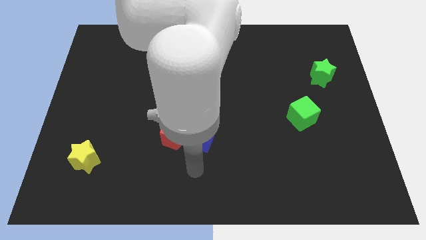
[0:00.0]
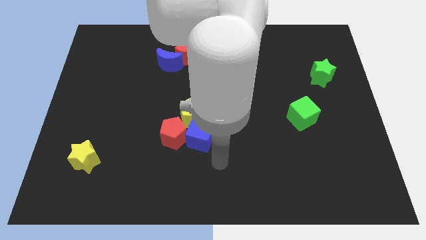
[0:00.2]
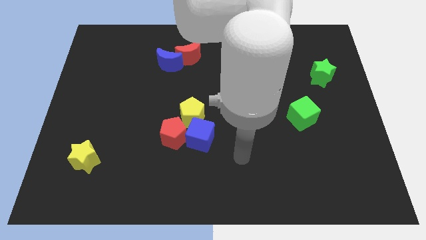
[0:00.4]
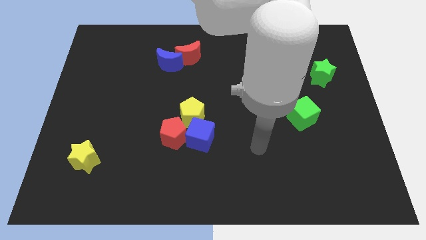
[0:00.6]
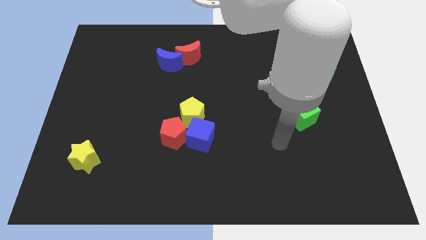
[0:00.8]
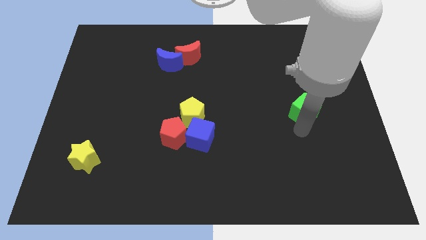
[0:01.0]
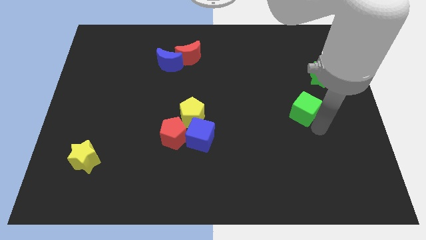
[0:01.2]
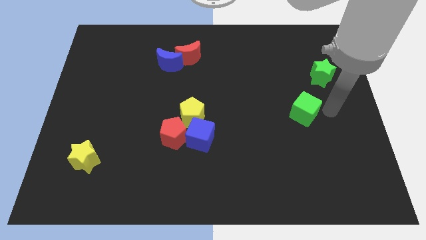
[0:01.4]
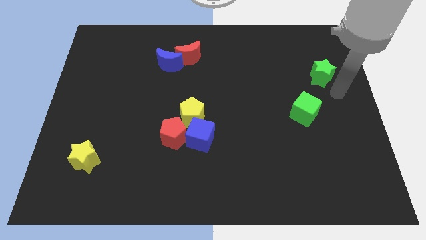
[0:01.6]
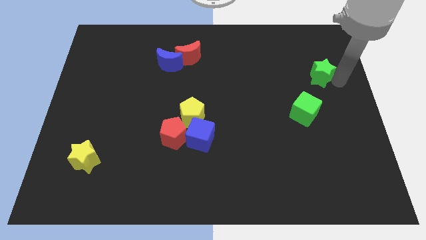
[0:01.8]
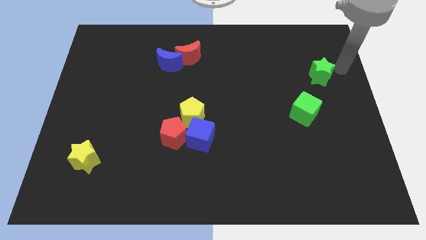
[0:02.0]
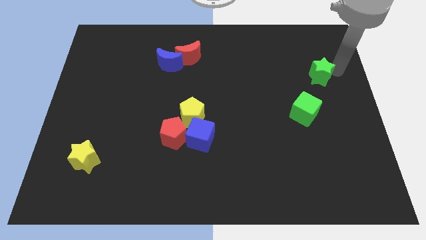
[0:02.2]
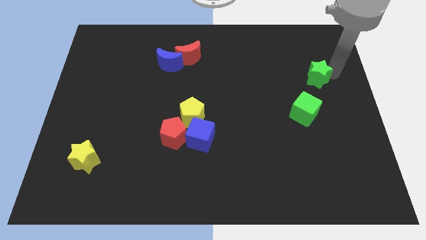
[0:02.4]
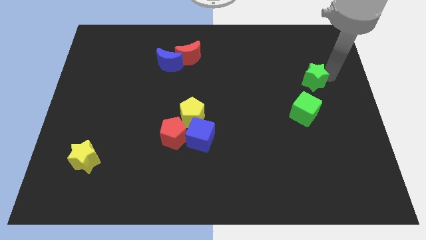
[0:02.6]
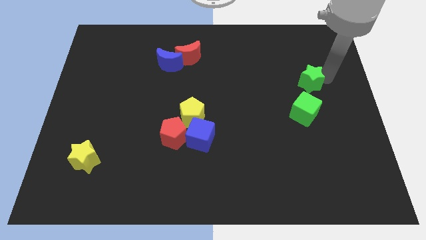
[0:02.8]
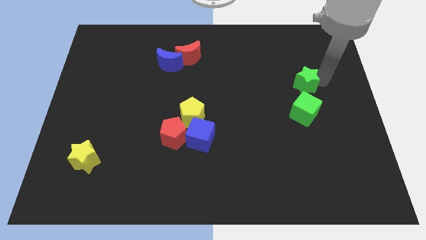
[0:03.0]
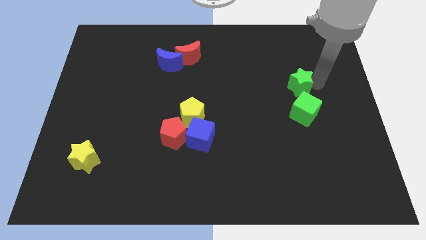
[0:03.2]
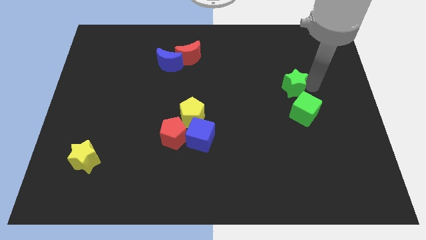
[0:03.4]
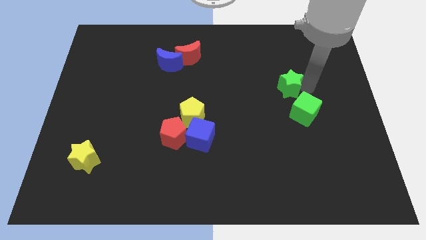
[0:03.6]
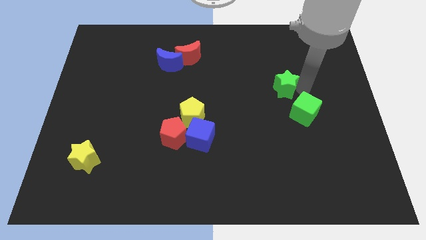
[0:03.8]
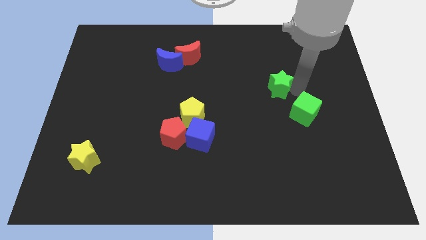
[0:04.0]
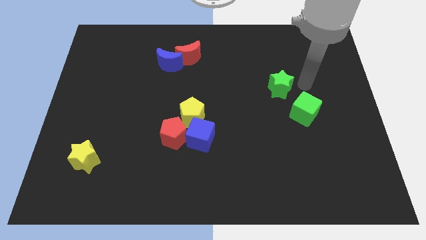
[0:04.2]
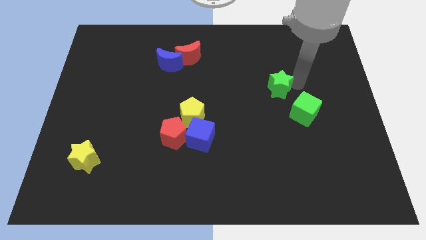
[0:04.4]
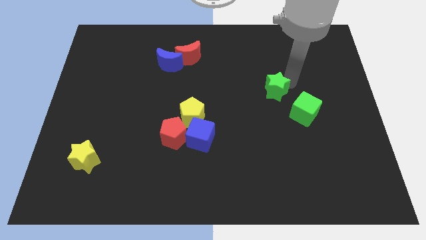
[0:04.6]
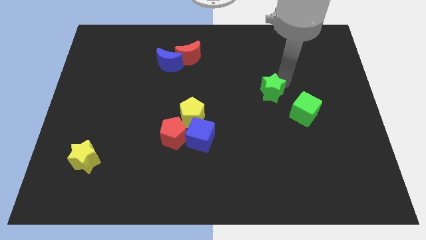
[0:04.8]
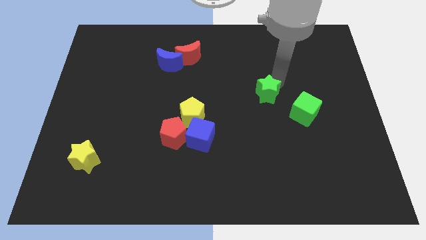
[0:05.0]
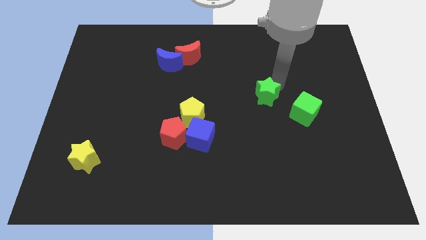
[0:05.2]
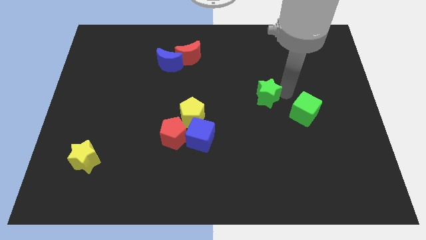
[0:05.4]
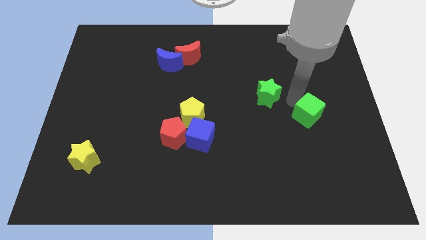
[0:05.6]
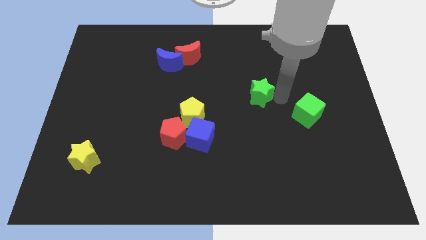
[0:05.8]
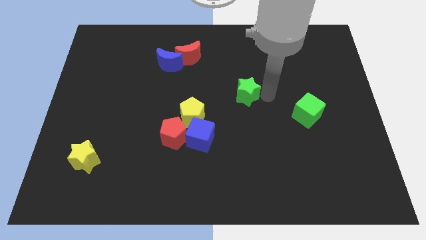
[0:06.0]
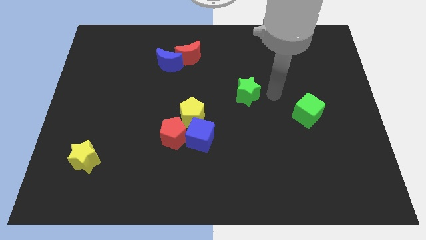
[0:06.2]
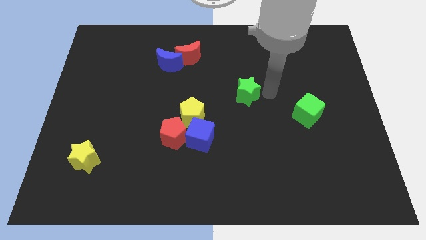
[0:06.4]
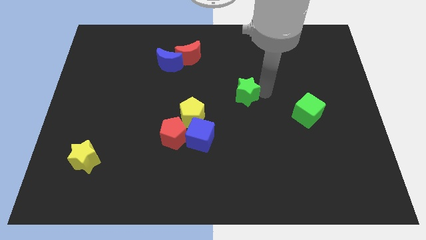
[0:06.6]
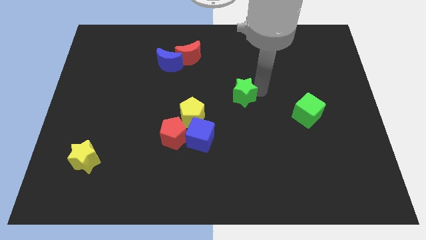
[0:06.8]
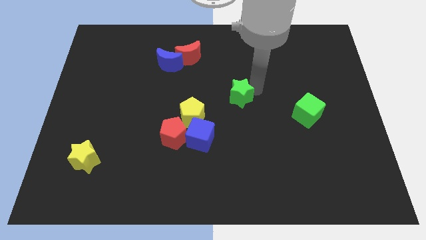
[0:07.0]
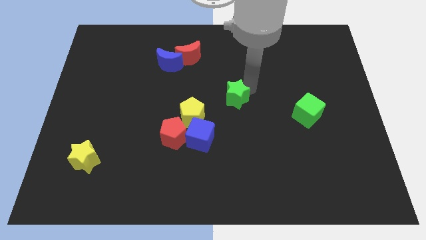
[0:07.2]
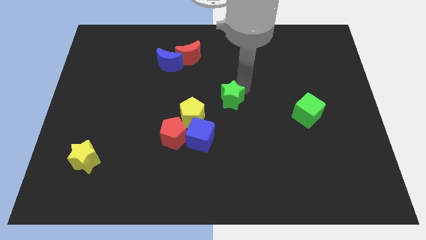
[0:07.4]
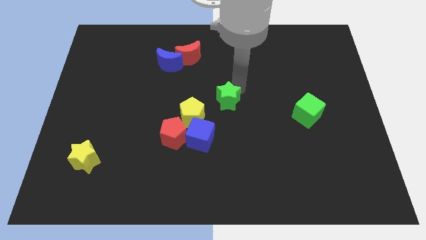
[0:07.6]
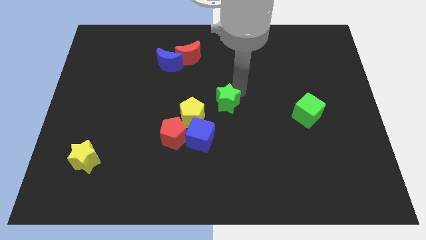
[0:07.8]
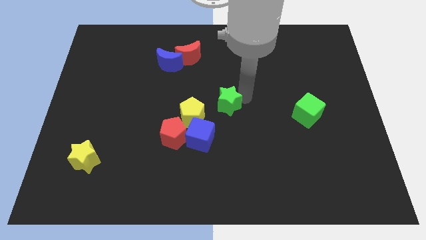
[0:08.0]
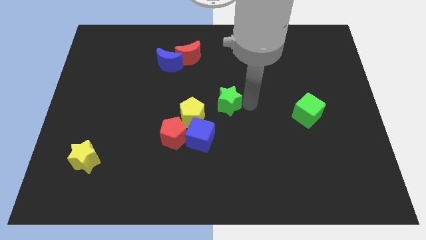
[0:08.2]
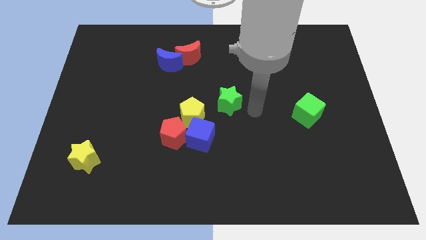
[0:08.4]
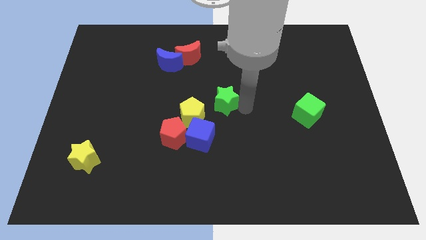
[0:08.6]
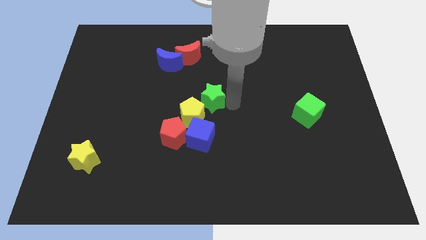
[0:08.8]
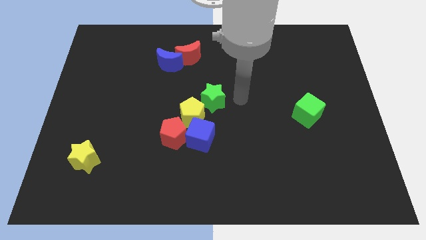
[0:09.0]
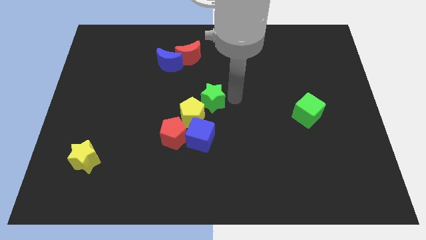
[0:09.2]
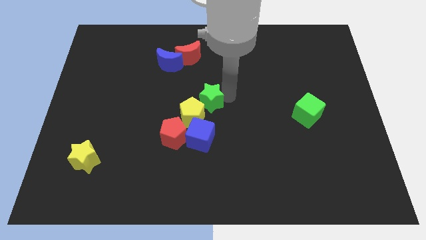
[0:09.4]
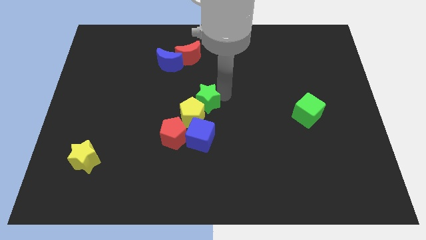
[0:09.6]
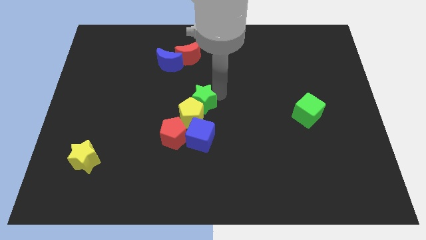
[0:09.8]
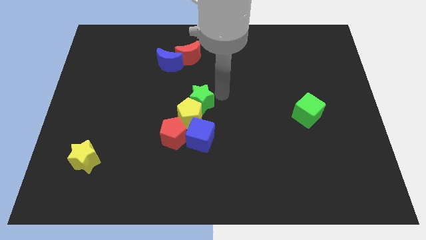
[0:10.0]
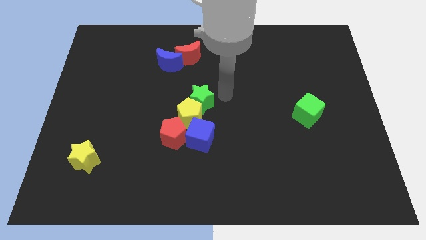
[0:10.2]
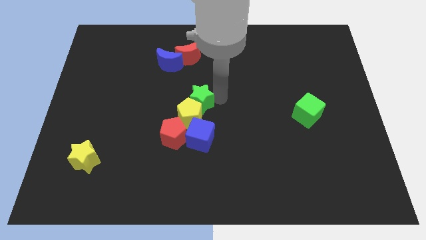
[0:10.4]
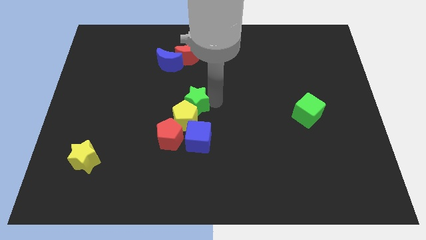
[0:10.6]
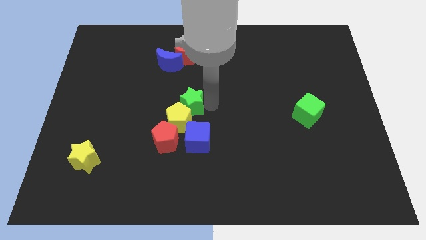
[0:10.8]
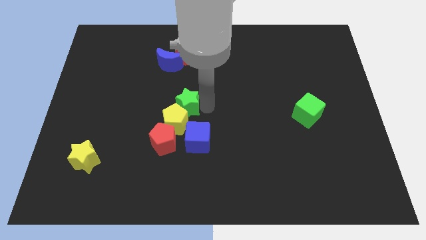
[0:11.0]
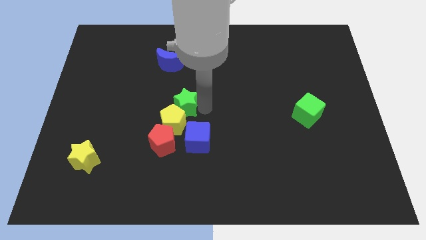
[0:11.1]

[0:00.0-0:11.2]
move the green star diagonally up and to the left of the blue cube
